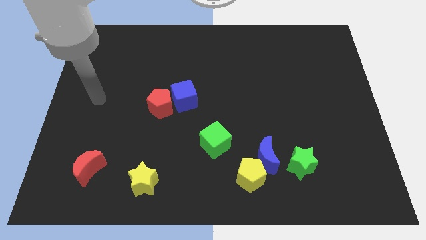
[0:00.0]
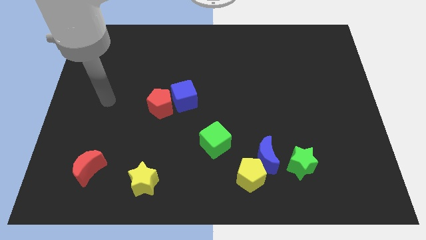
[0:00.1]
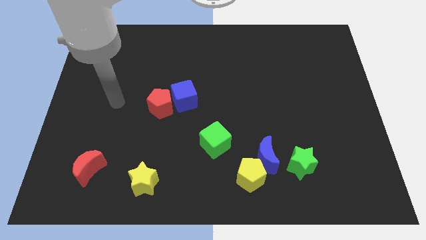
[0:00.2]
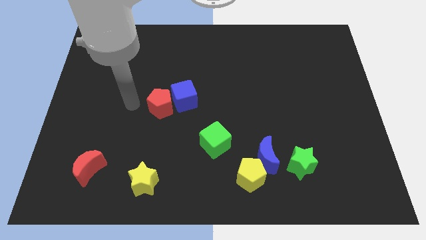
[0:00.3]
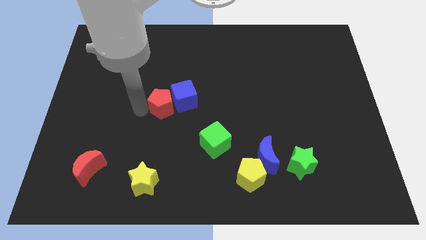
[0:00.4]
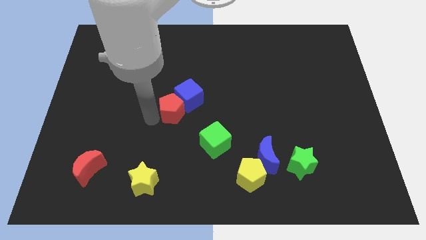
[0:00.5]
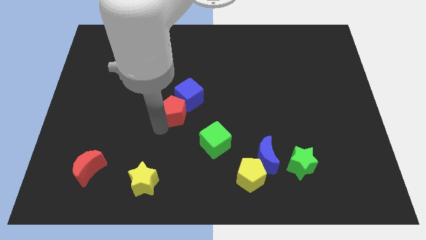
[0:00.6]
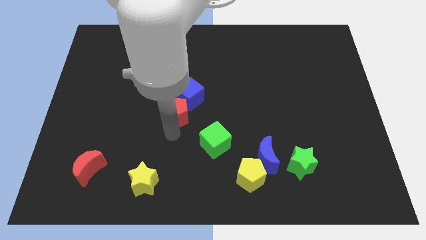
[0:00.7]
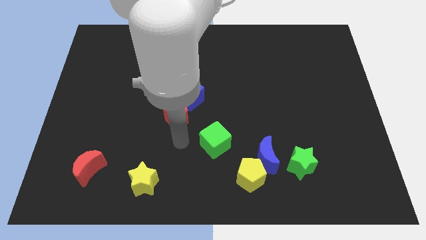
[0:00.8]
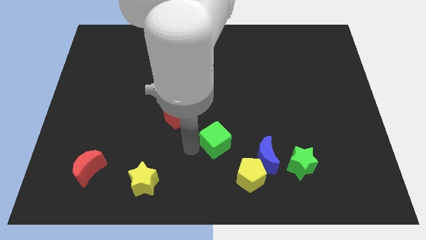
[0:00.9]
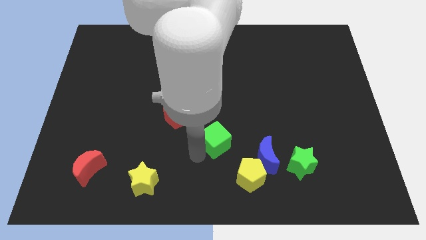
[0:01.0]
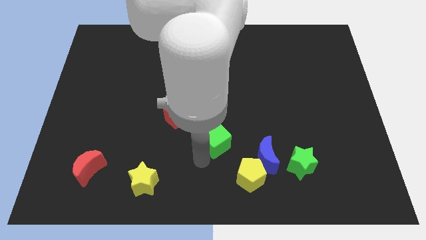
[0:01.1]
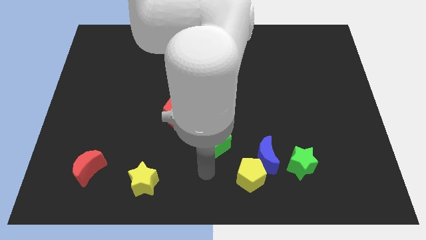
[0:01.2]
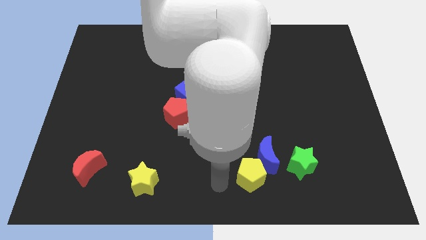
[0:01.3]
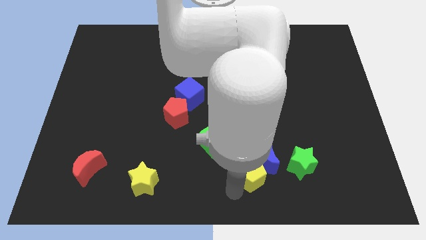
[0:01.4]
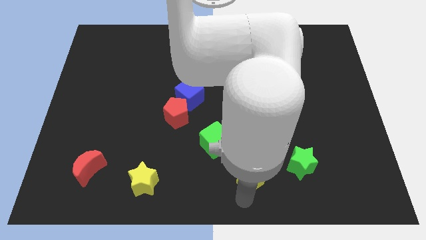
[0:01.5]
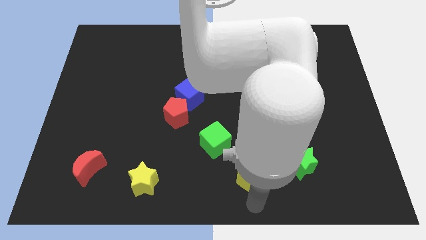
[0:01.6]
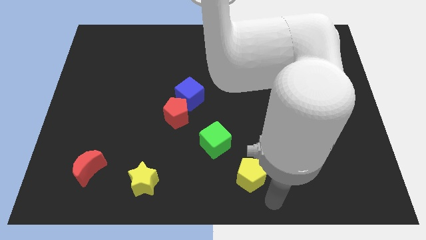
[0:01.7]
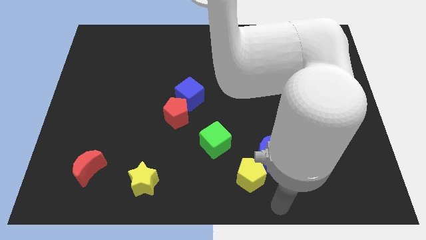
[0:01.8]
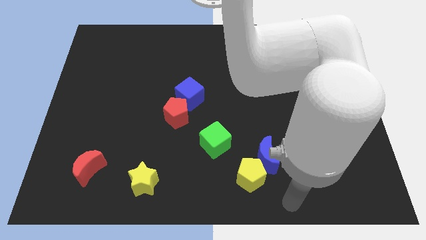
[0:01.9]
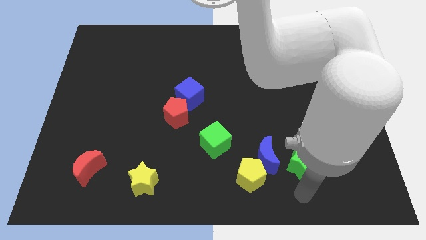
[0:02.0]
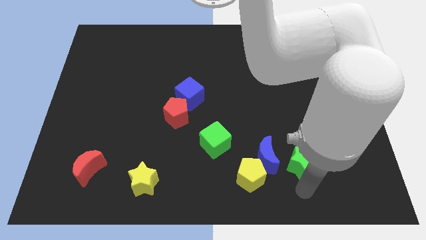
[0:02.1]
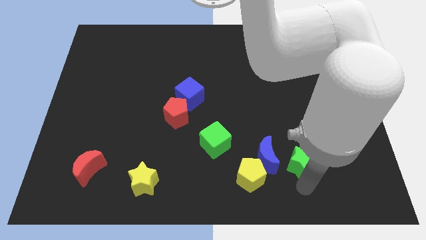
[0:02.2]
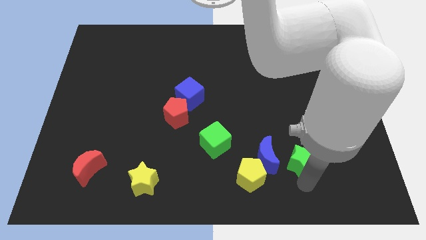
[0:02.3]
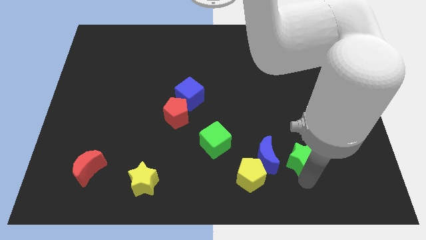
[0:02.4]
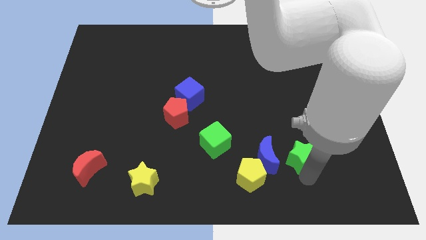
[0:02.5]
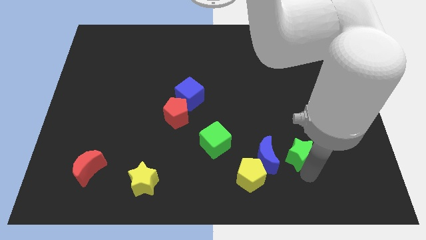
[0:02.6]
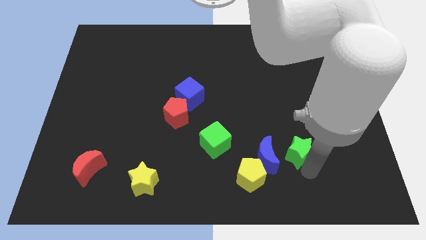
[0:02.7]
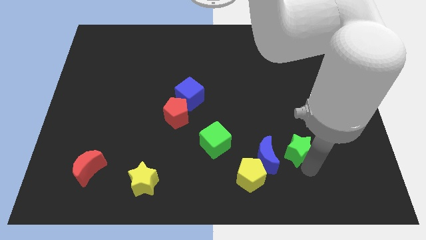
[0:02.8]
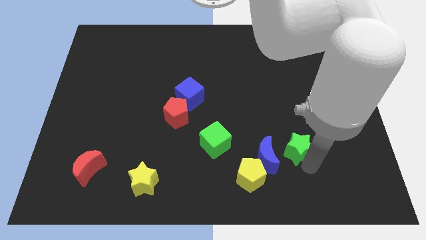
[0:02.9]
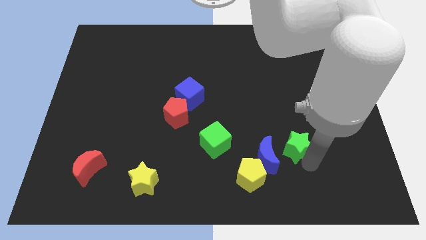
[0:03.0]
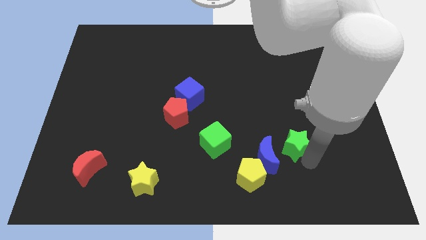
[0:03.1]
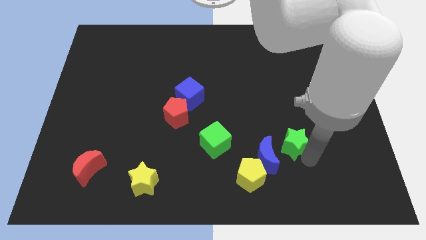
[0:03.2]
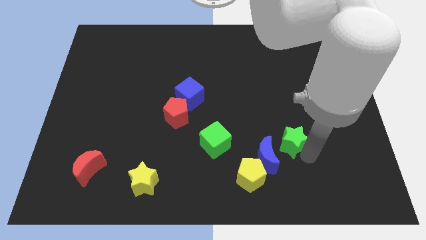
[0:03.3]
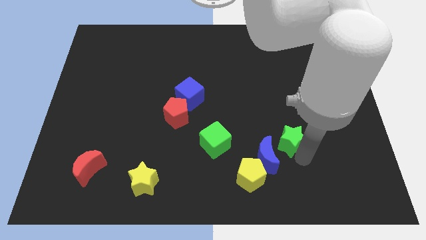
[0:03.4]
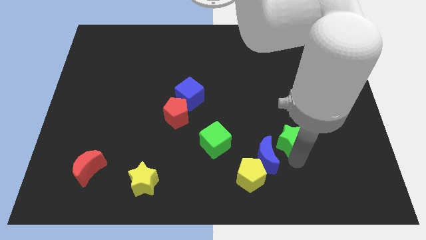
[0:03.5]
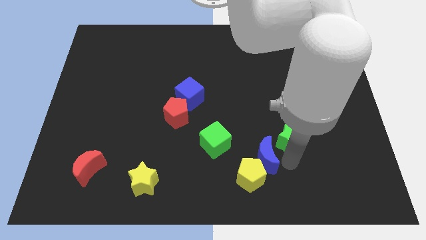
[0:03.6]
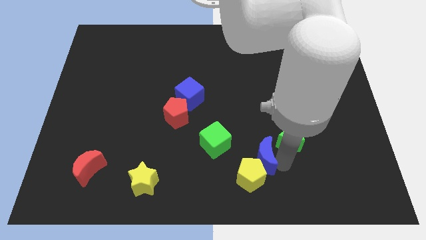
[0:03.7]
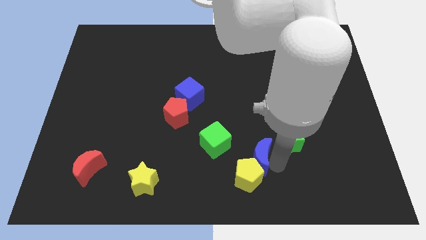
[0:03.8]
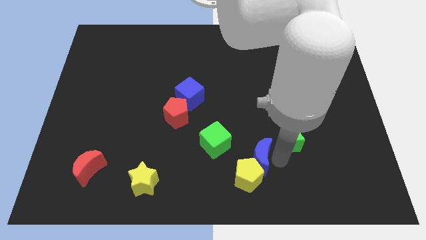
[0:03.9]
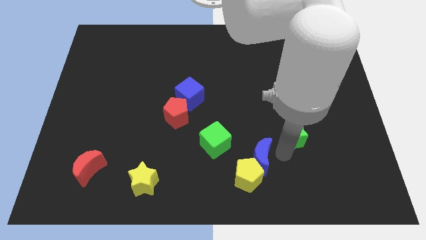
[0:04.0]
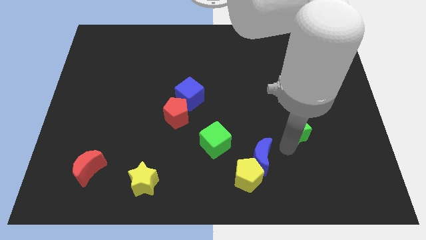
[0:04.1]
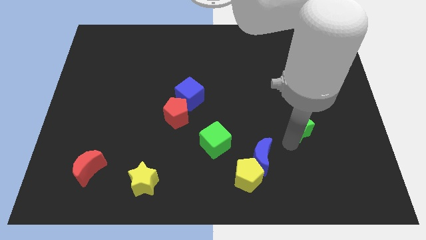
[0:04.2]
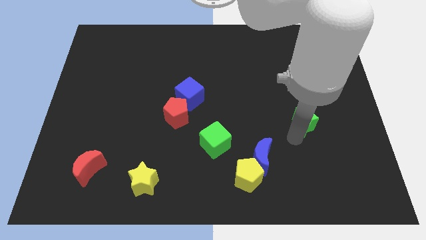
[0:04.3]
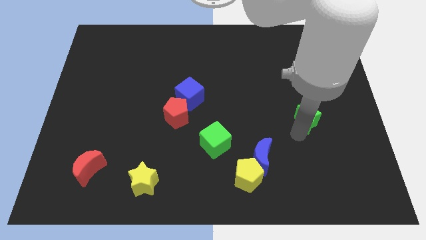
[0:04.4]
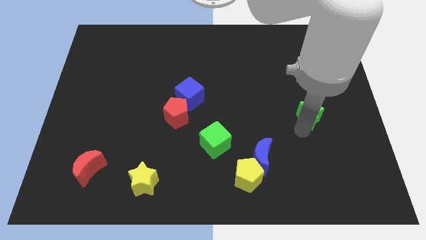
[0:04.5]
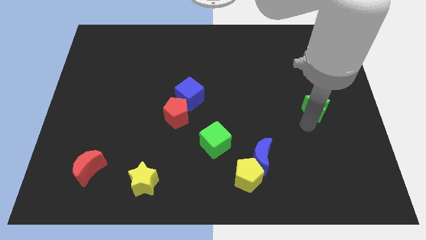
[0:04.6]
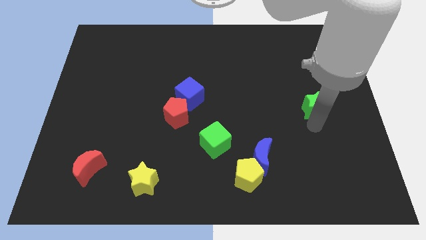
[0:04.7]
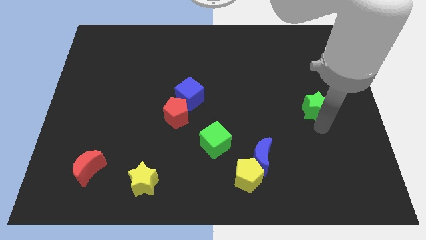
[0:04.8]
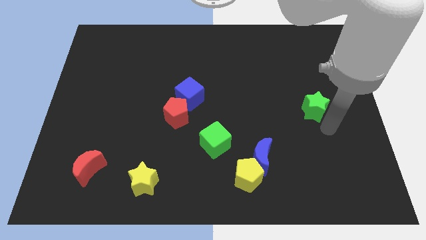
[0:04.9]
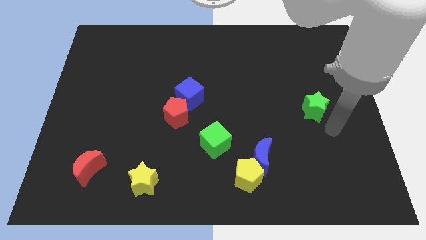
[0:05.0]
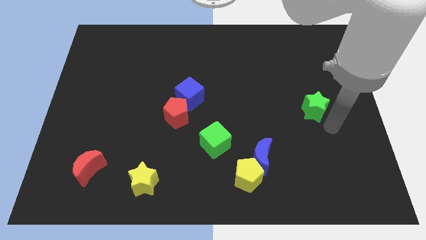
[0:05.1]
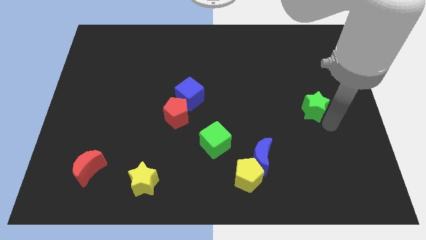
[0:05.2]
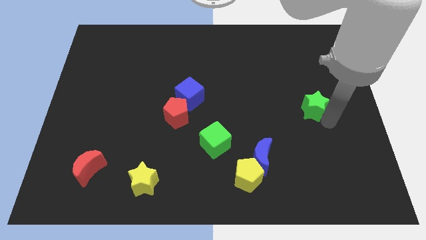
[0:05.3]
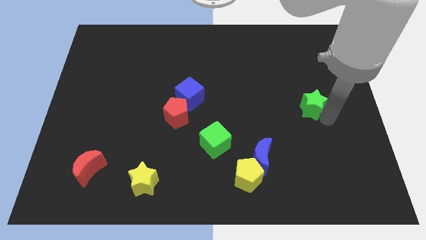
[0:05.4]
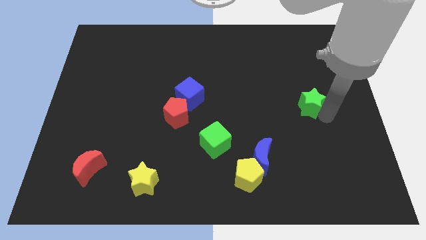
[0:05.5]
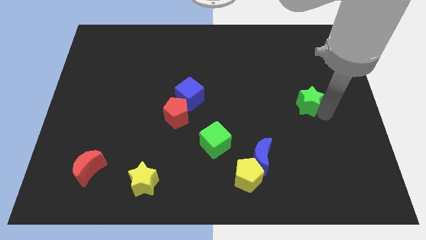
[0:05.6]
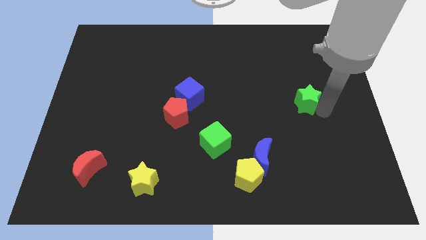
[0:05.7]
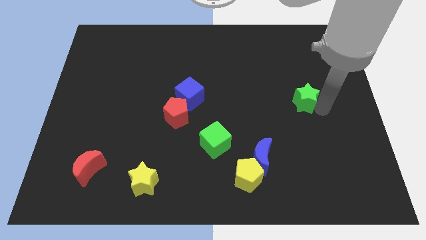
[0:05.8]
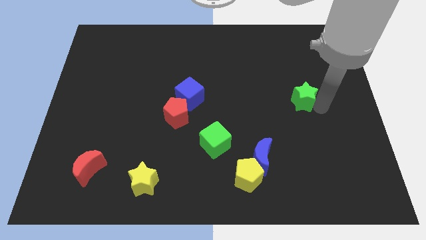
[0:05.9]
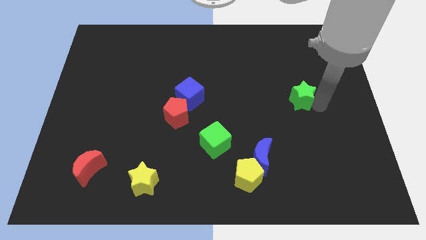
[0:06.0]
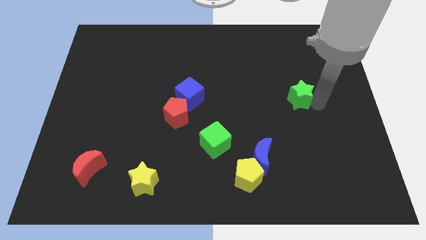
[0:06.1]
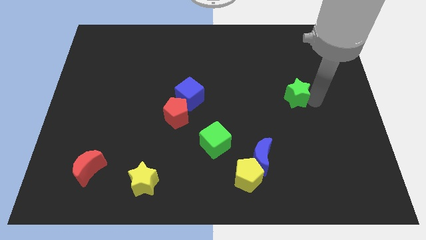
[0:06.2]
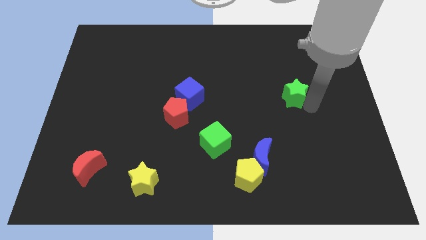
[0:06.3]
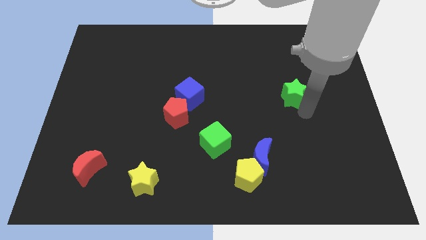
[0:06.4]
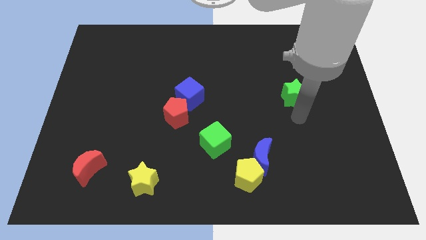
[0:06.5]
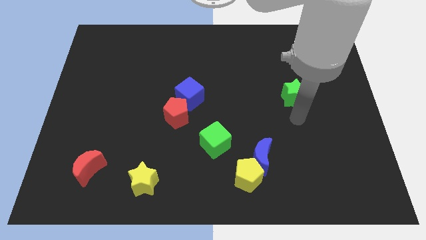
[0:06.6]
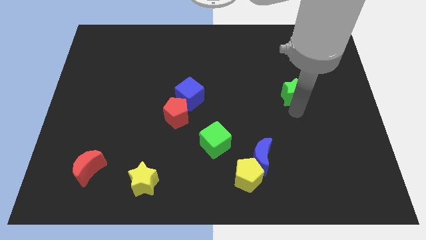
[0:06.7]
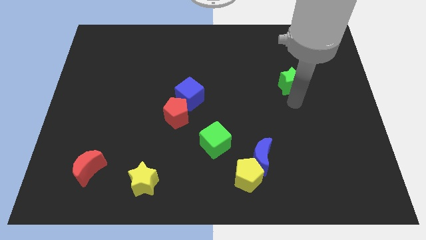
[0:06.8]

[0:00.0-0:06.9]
slide the green star upwards

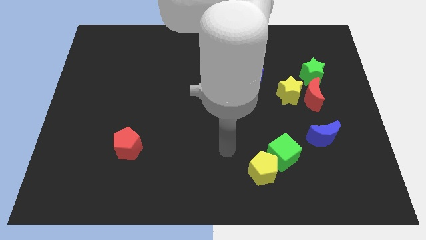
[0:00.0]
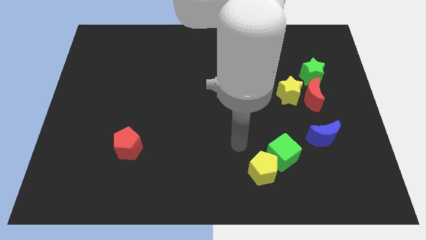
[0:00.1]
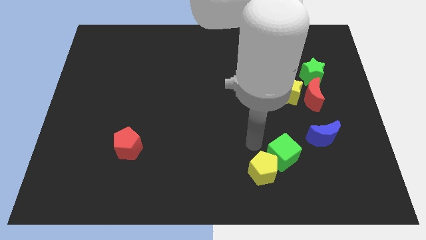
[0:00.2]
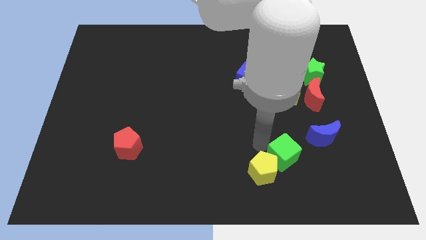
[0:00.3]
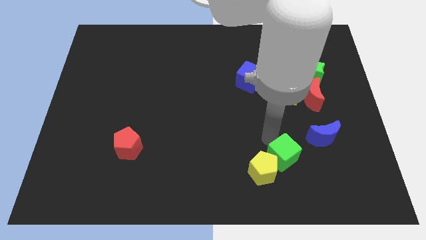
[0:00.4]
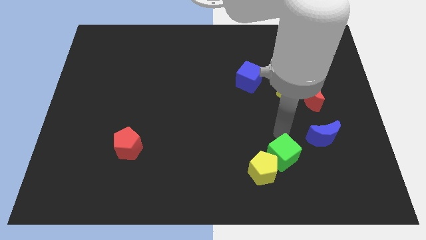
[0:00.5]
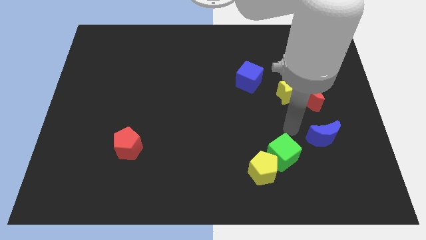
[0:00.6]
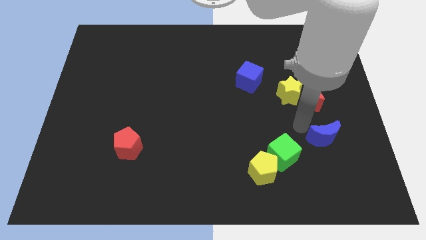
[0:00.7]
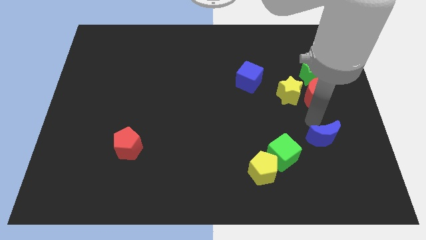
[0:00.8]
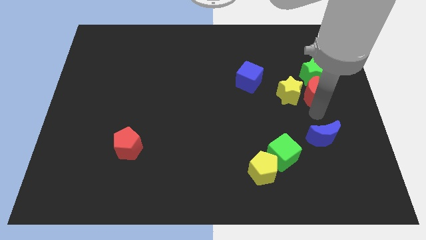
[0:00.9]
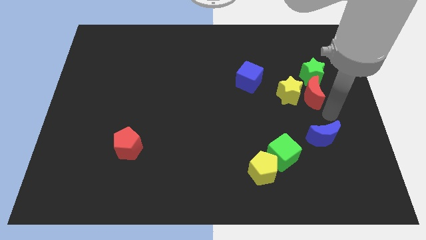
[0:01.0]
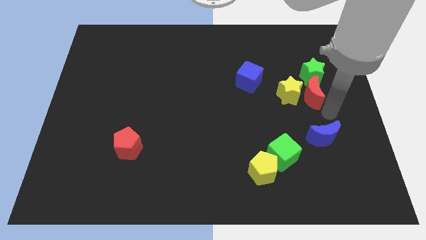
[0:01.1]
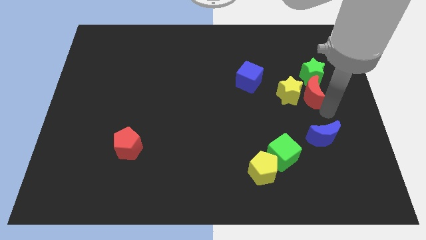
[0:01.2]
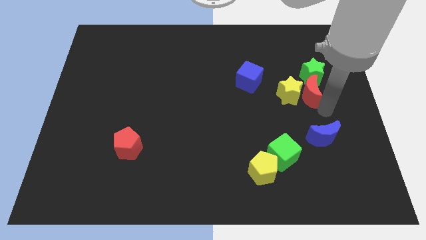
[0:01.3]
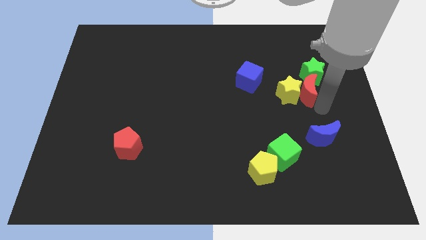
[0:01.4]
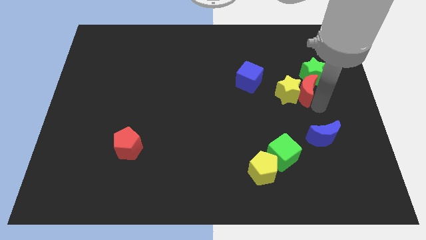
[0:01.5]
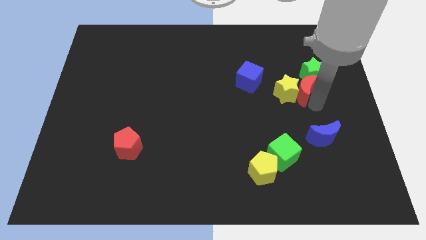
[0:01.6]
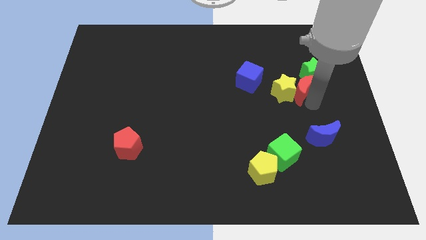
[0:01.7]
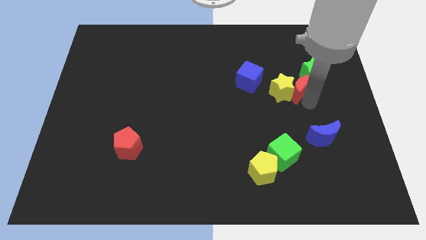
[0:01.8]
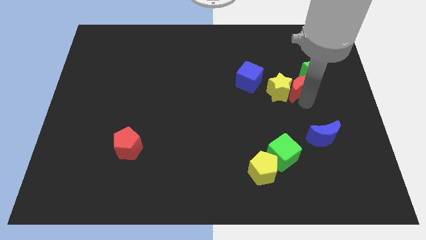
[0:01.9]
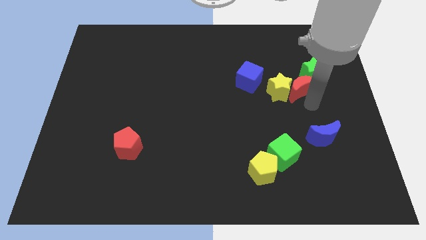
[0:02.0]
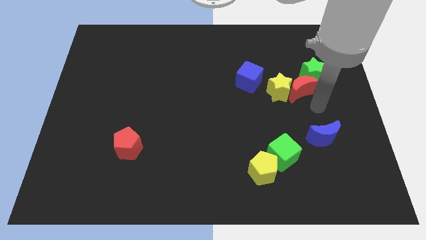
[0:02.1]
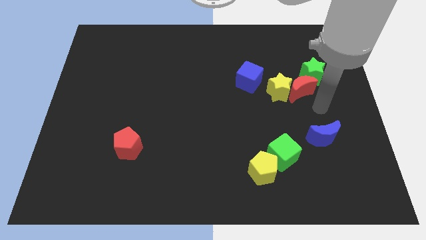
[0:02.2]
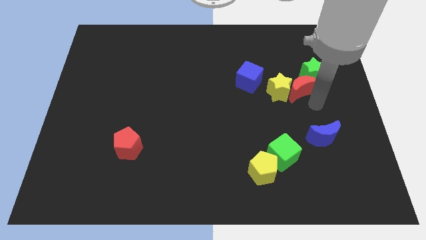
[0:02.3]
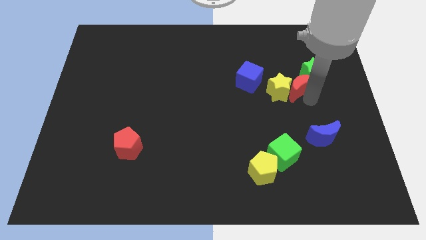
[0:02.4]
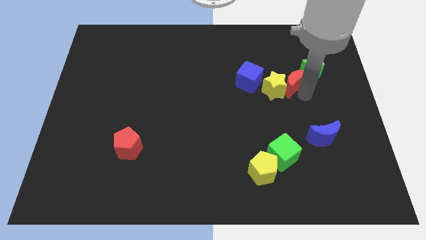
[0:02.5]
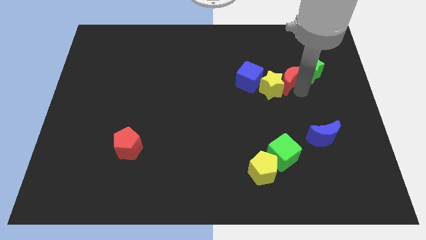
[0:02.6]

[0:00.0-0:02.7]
push the red moon somewhat upwards and then left
